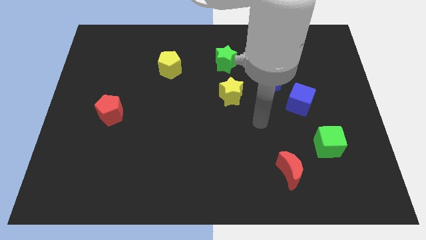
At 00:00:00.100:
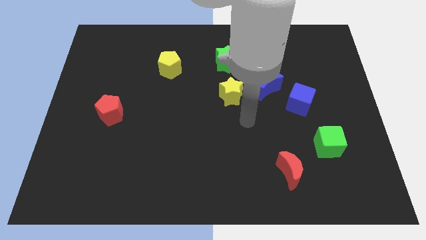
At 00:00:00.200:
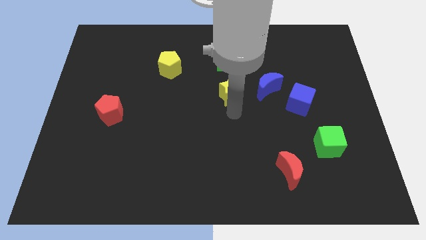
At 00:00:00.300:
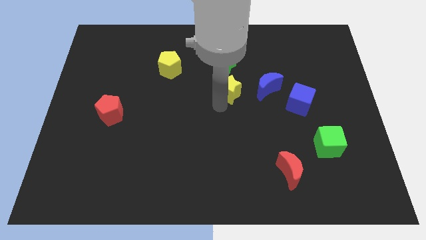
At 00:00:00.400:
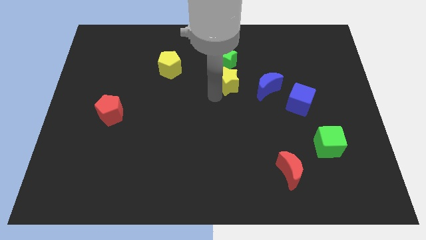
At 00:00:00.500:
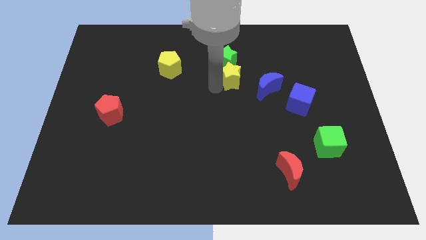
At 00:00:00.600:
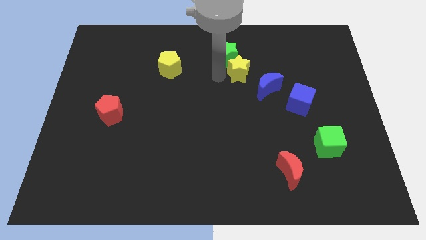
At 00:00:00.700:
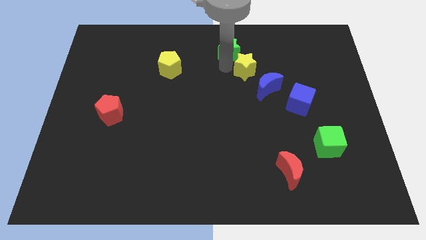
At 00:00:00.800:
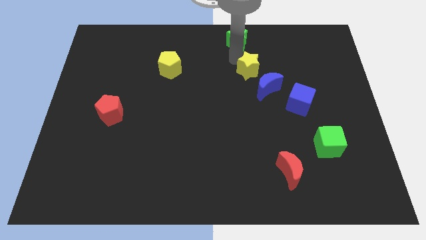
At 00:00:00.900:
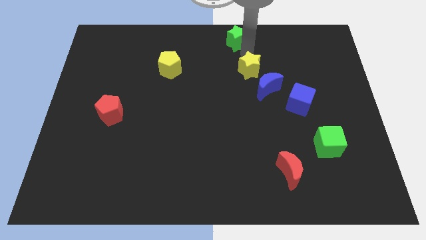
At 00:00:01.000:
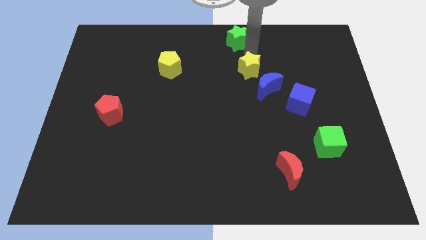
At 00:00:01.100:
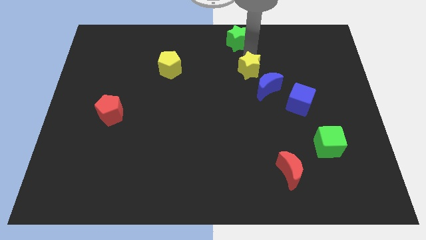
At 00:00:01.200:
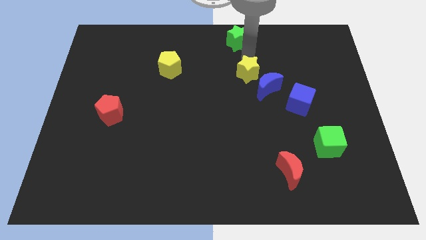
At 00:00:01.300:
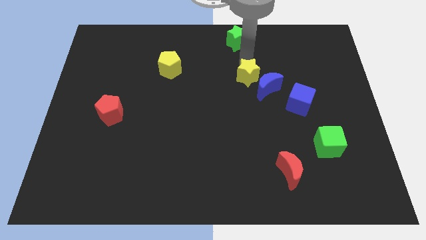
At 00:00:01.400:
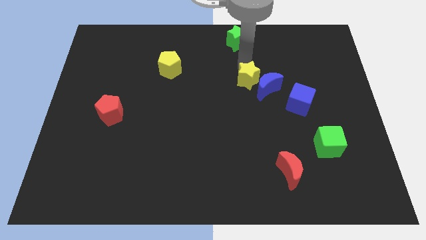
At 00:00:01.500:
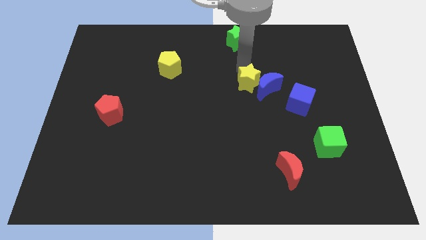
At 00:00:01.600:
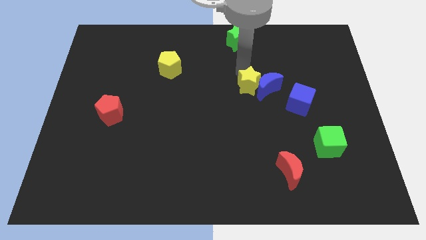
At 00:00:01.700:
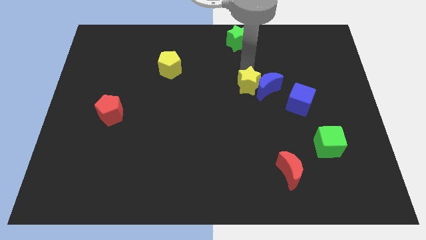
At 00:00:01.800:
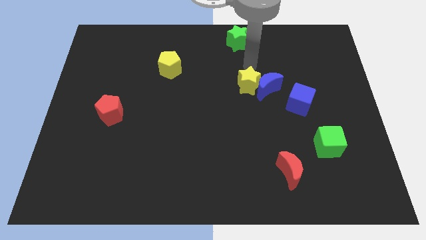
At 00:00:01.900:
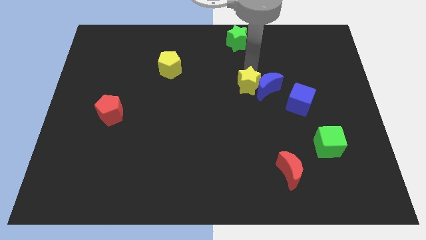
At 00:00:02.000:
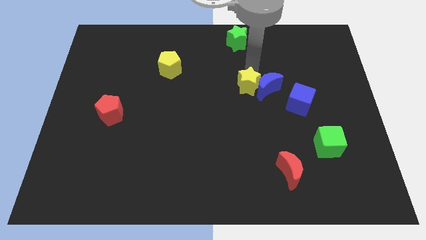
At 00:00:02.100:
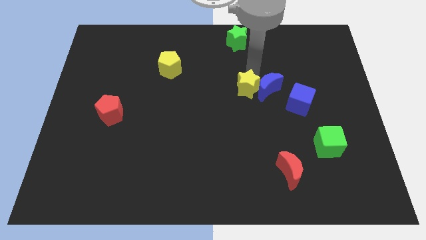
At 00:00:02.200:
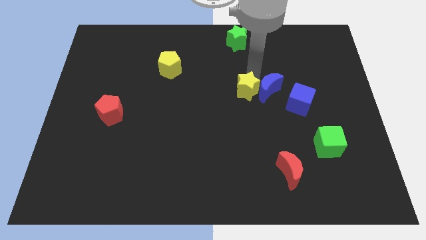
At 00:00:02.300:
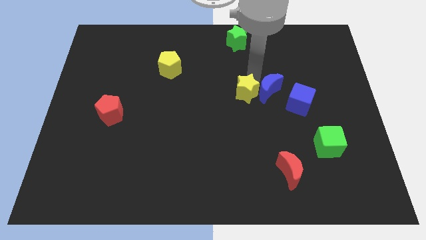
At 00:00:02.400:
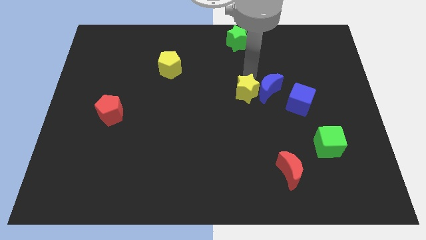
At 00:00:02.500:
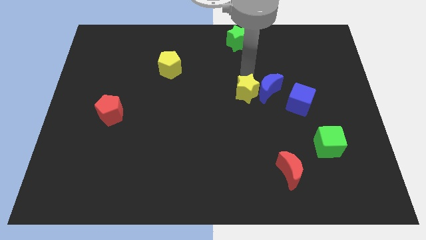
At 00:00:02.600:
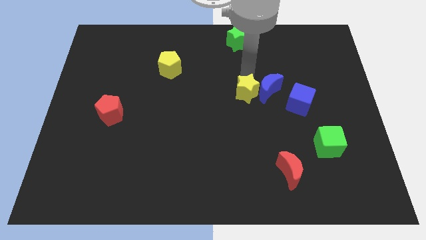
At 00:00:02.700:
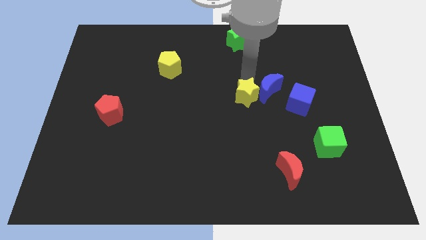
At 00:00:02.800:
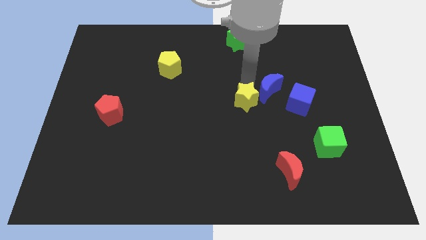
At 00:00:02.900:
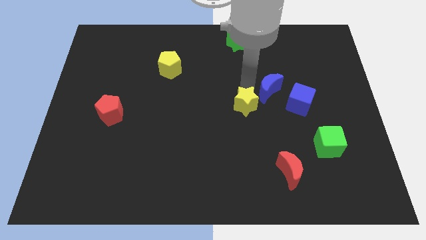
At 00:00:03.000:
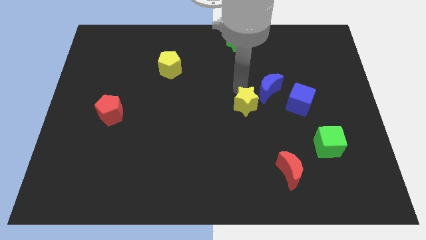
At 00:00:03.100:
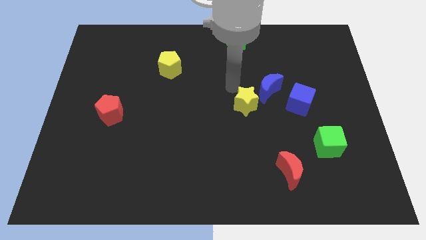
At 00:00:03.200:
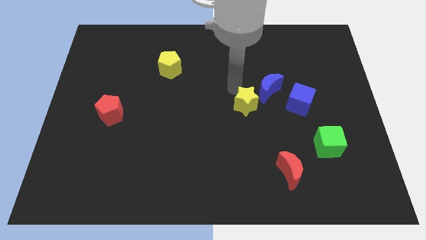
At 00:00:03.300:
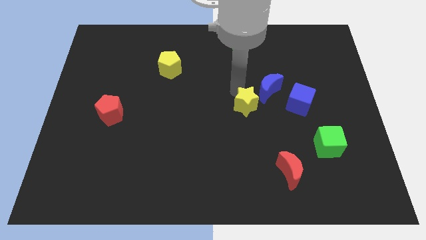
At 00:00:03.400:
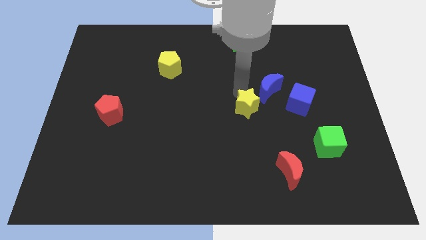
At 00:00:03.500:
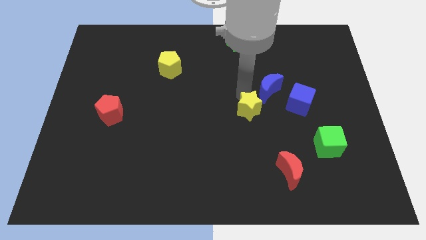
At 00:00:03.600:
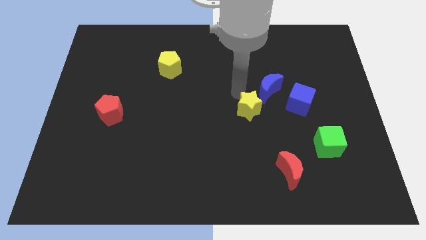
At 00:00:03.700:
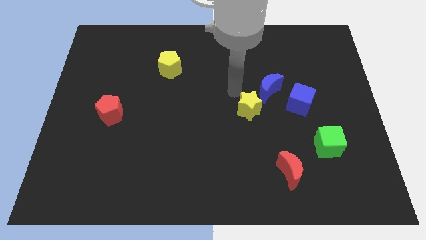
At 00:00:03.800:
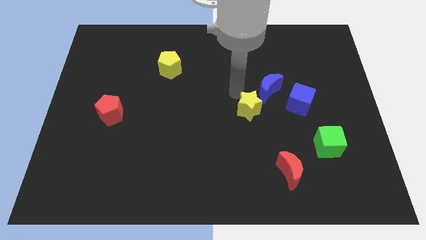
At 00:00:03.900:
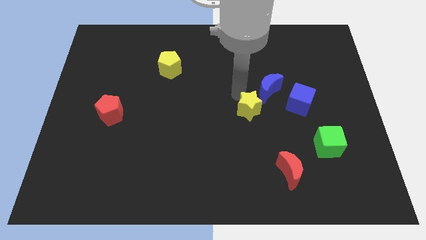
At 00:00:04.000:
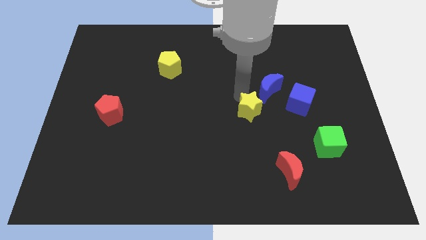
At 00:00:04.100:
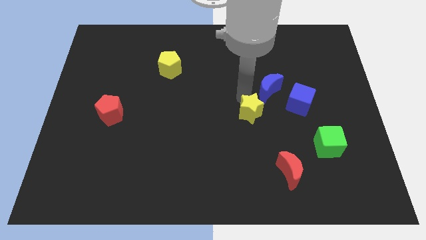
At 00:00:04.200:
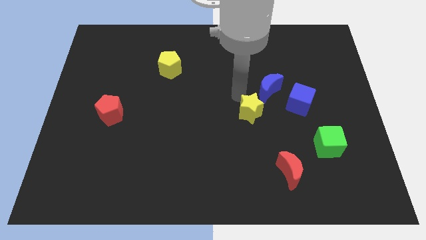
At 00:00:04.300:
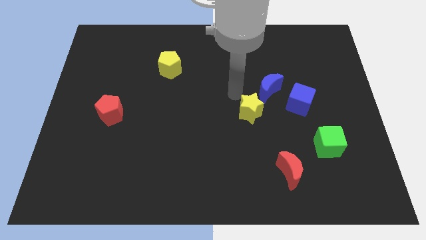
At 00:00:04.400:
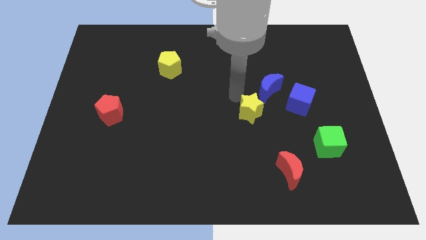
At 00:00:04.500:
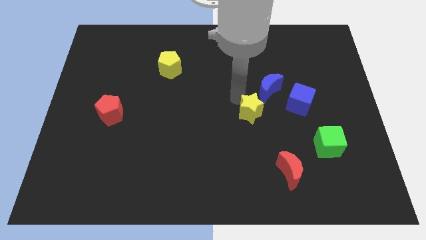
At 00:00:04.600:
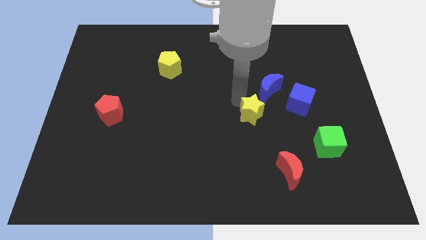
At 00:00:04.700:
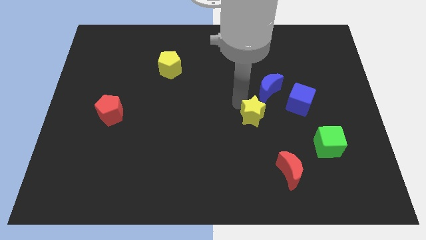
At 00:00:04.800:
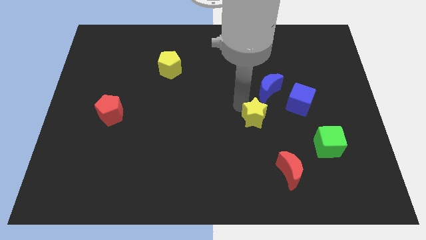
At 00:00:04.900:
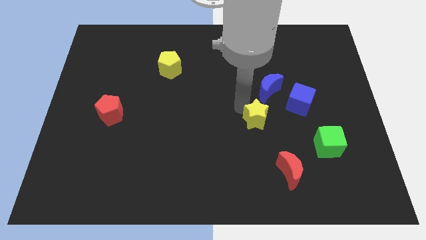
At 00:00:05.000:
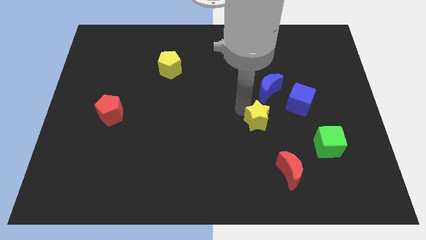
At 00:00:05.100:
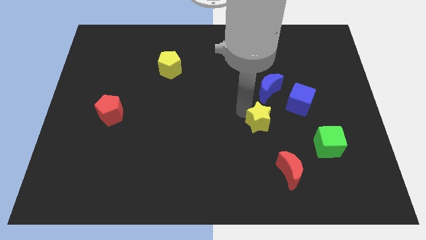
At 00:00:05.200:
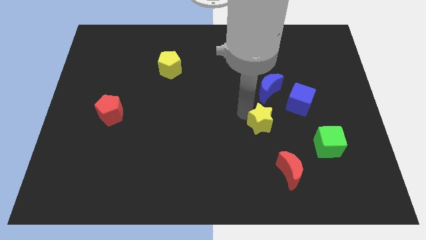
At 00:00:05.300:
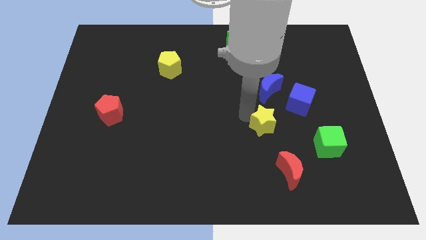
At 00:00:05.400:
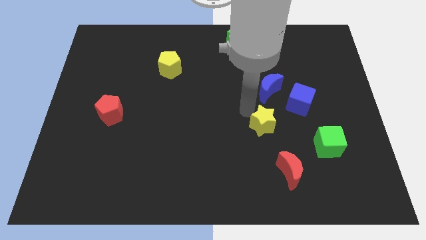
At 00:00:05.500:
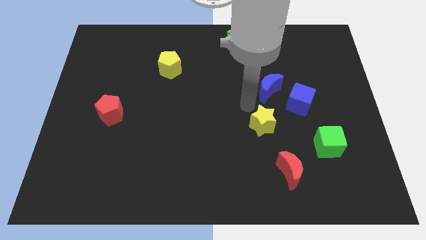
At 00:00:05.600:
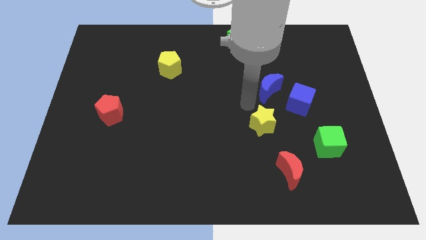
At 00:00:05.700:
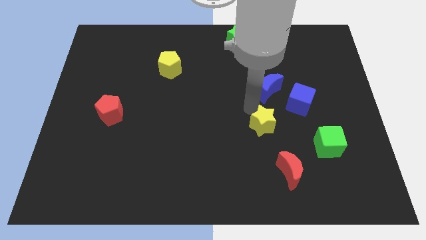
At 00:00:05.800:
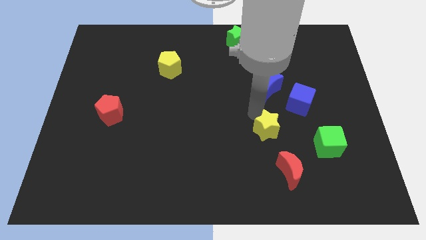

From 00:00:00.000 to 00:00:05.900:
slide the yellow star left of the green cube

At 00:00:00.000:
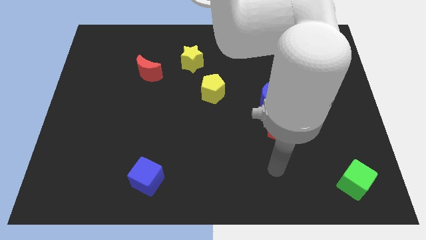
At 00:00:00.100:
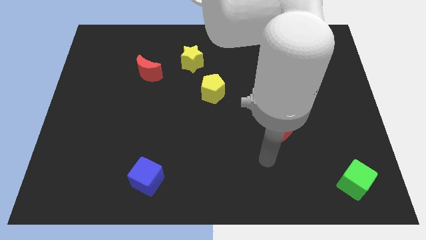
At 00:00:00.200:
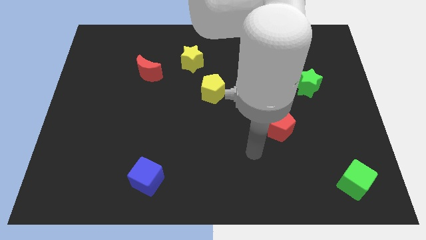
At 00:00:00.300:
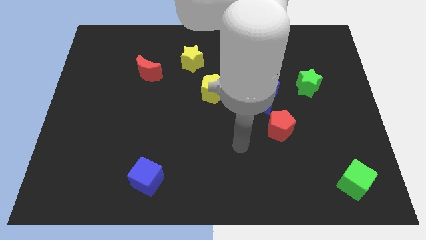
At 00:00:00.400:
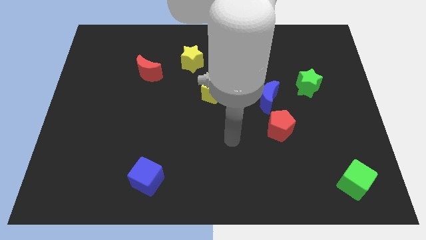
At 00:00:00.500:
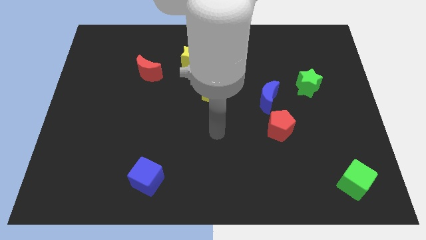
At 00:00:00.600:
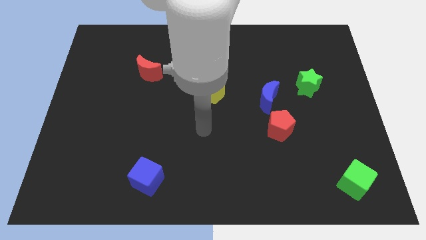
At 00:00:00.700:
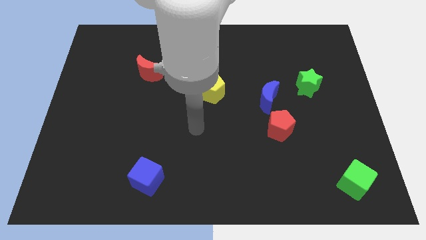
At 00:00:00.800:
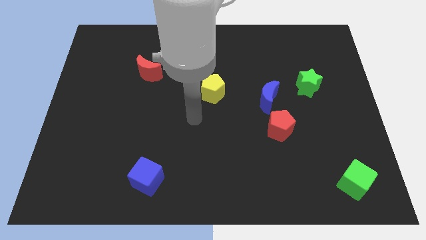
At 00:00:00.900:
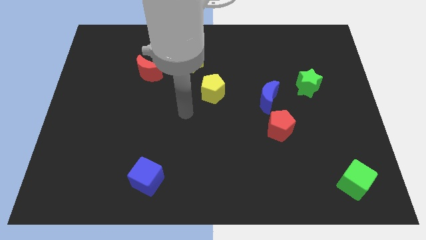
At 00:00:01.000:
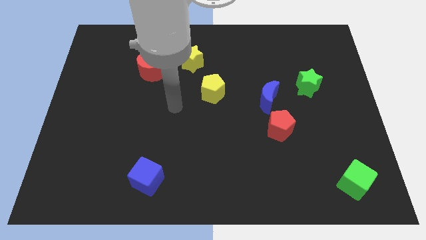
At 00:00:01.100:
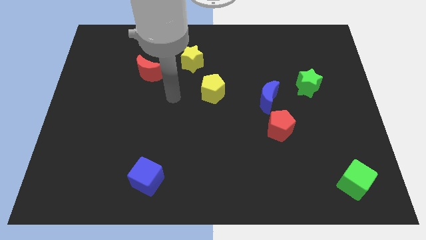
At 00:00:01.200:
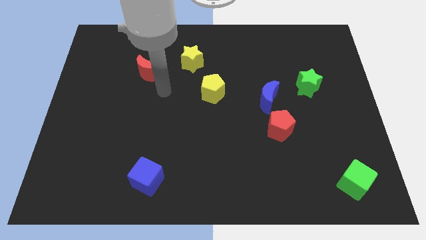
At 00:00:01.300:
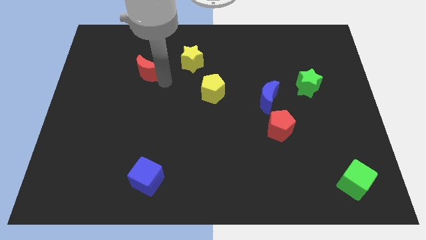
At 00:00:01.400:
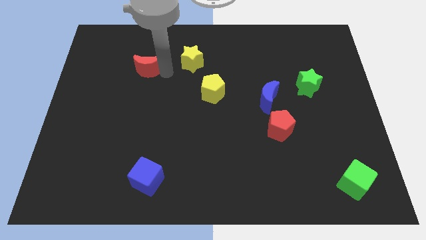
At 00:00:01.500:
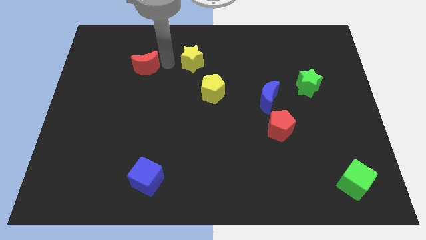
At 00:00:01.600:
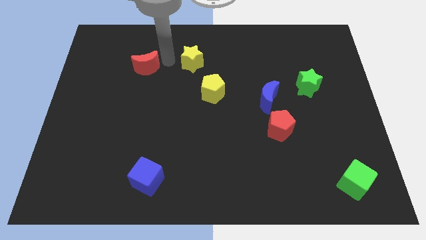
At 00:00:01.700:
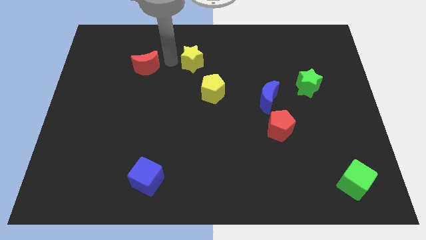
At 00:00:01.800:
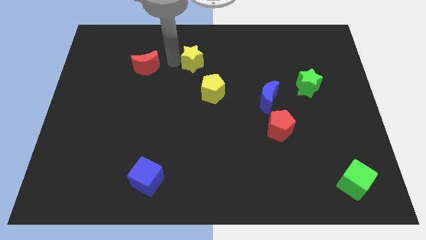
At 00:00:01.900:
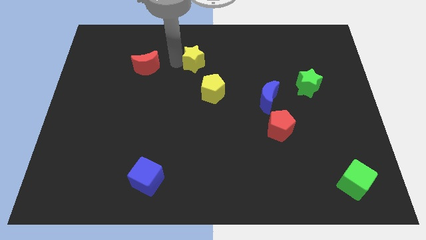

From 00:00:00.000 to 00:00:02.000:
push the yellow star to the top side of the yellow pentagon
